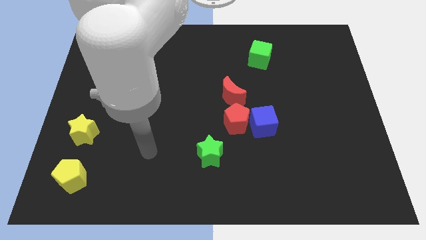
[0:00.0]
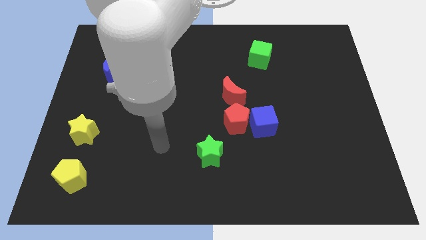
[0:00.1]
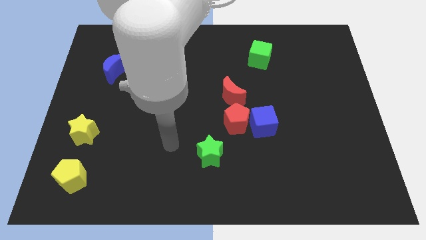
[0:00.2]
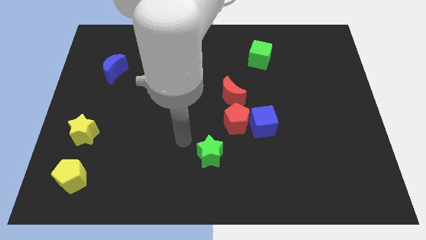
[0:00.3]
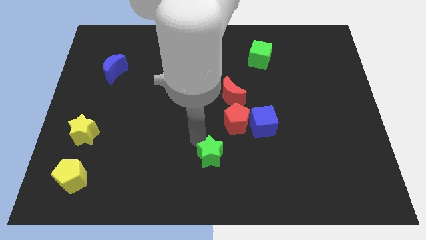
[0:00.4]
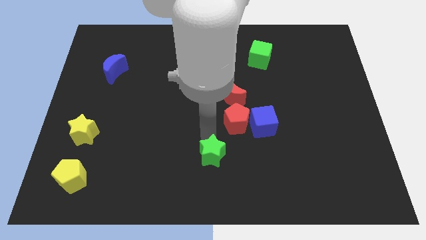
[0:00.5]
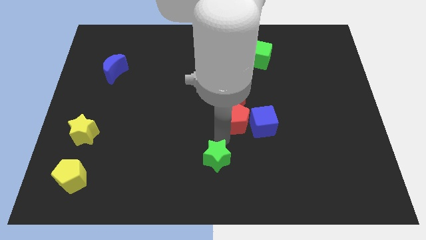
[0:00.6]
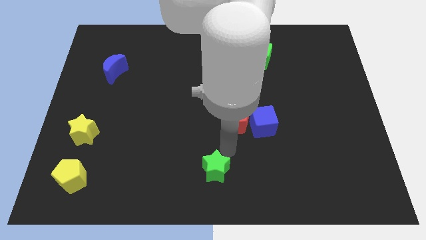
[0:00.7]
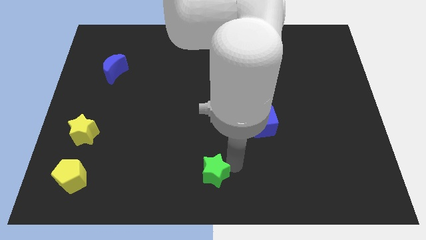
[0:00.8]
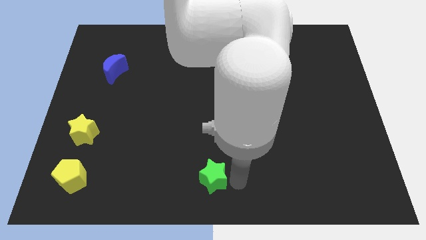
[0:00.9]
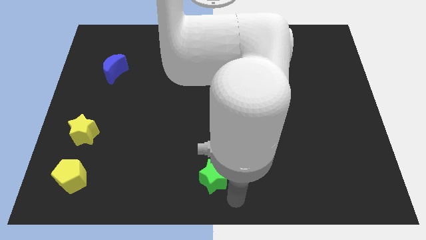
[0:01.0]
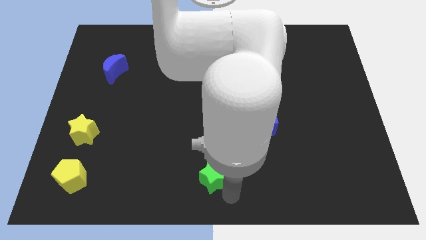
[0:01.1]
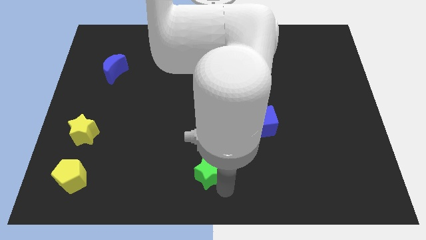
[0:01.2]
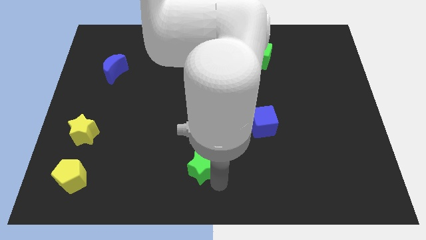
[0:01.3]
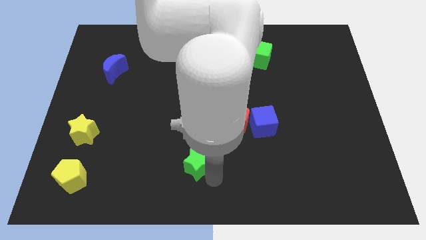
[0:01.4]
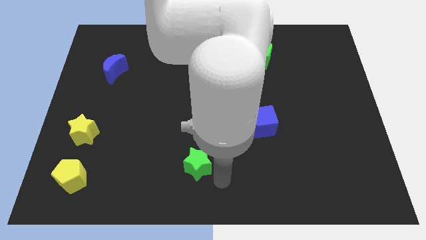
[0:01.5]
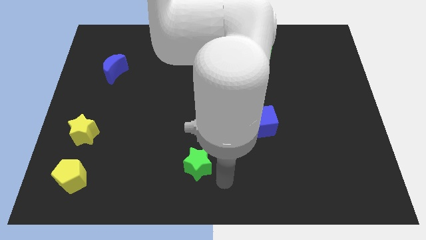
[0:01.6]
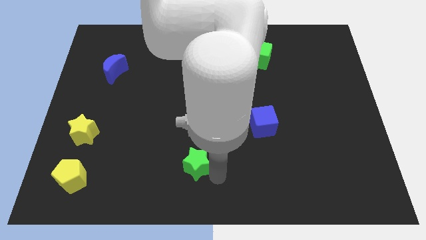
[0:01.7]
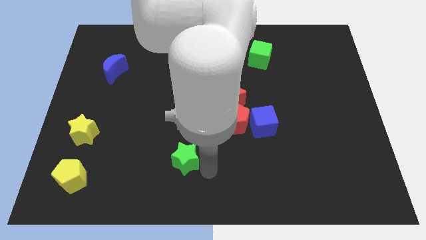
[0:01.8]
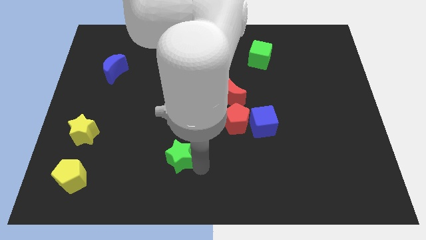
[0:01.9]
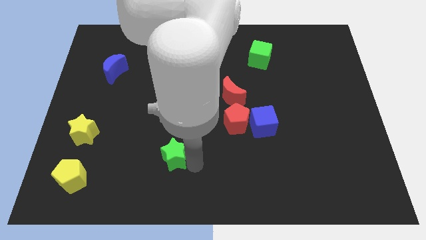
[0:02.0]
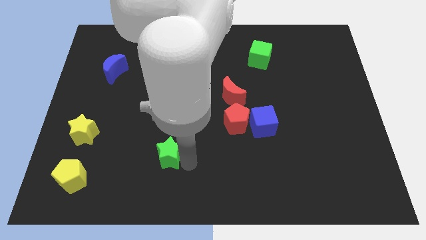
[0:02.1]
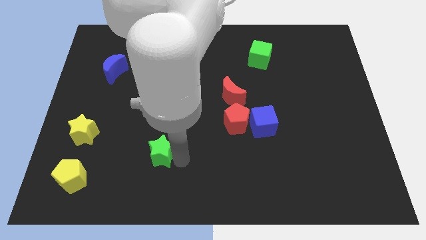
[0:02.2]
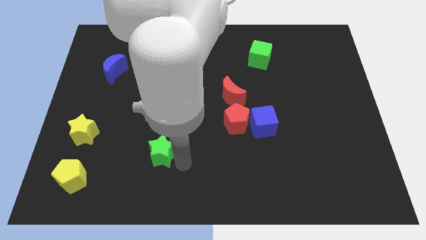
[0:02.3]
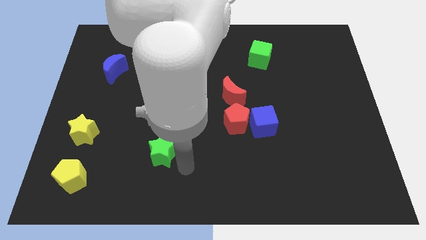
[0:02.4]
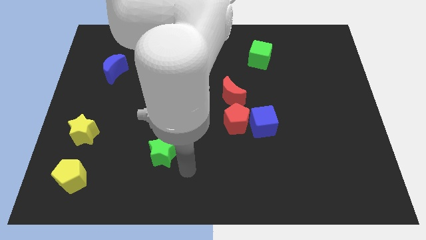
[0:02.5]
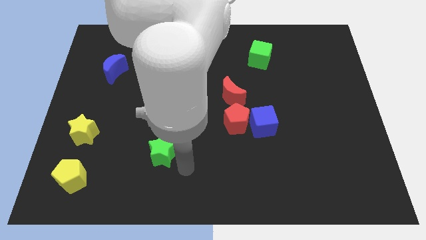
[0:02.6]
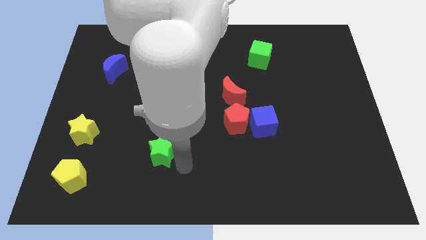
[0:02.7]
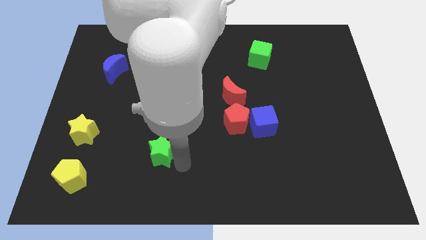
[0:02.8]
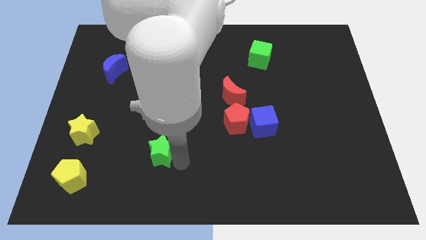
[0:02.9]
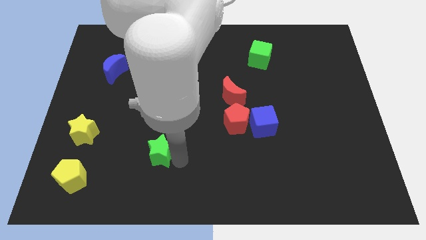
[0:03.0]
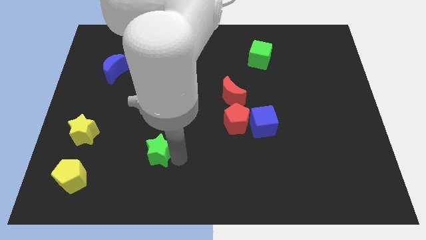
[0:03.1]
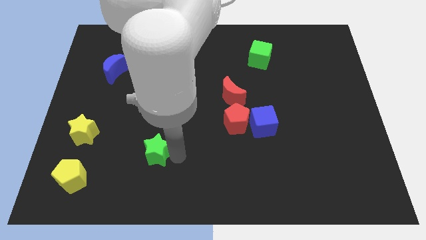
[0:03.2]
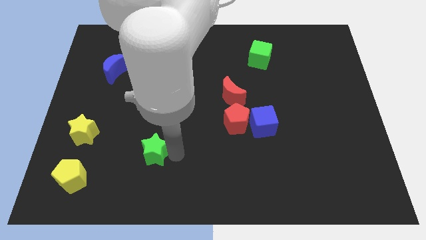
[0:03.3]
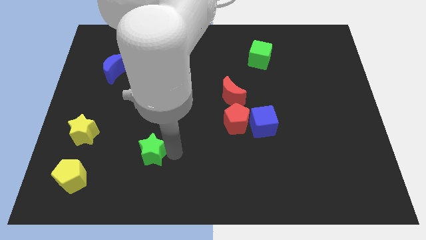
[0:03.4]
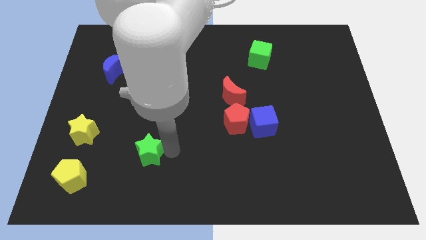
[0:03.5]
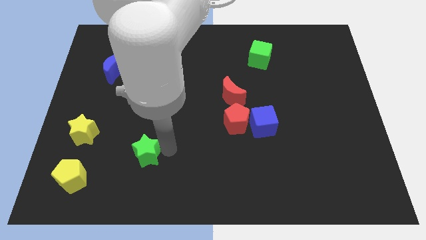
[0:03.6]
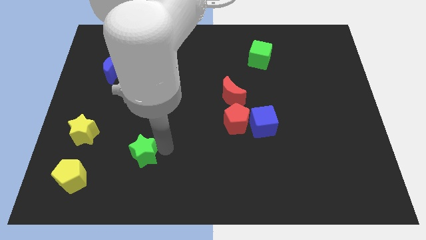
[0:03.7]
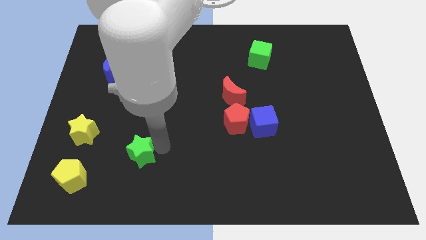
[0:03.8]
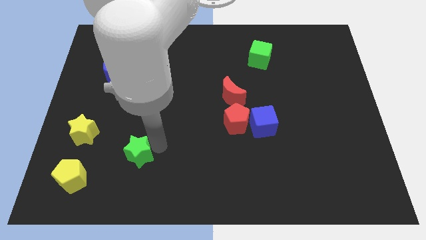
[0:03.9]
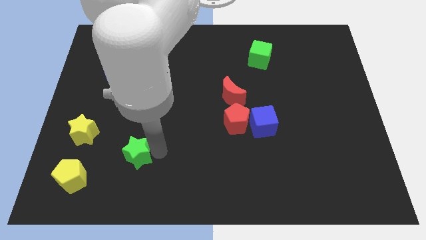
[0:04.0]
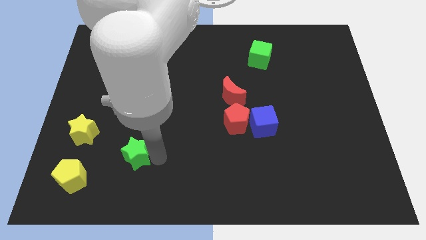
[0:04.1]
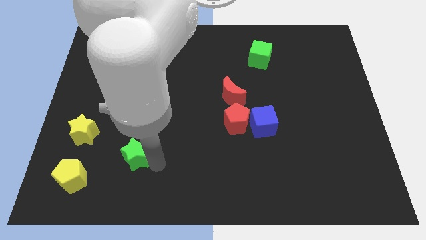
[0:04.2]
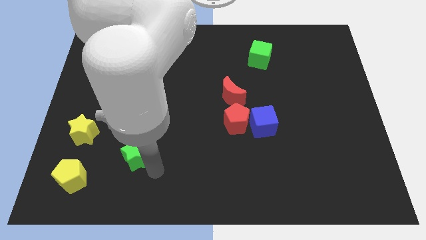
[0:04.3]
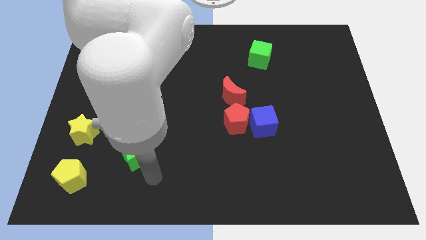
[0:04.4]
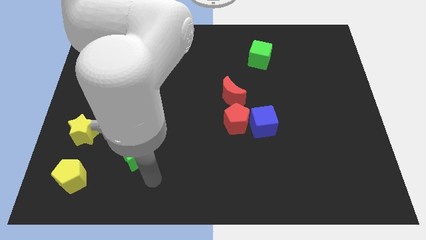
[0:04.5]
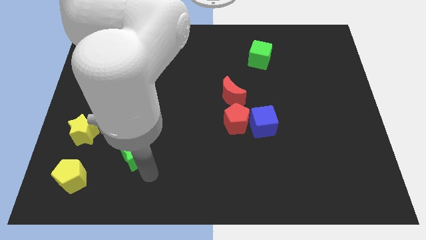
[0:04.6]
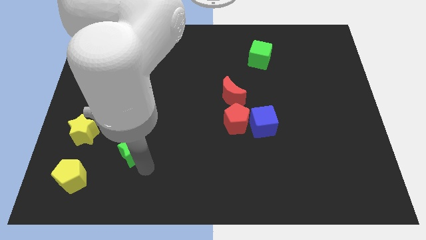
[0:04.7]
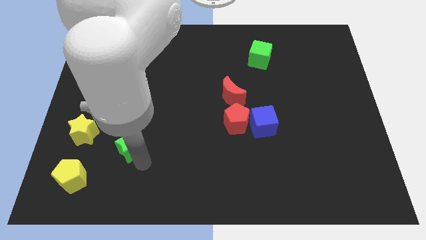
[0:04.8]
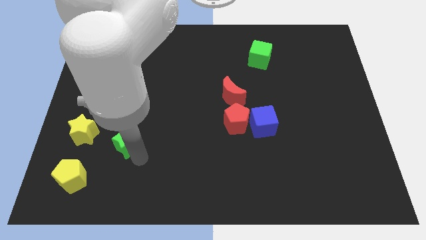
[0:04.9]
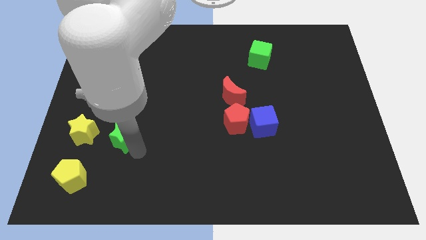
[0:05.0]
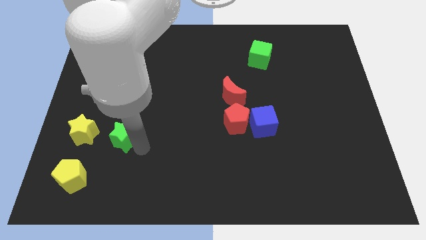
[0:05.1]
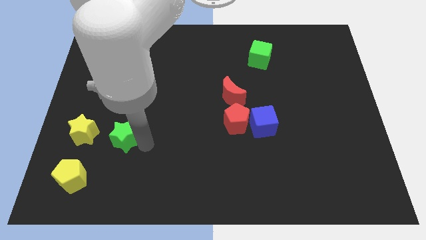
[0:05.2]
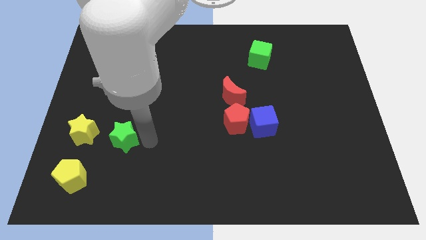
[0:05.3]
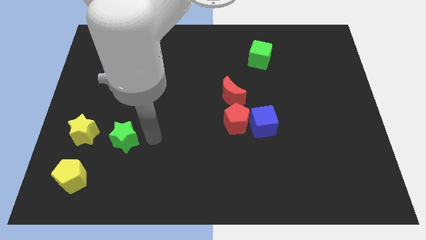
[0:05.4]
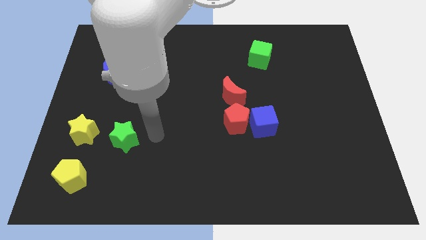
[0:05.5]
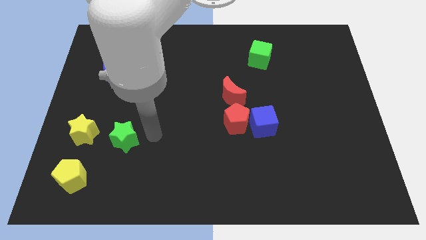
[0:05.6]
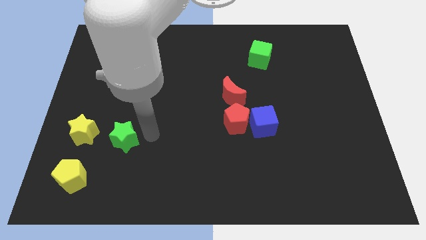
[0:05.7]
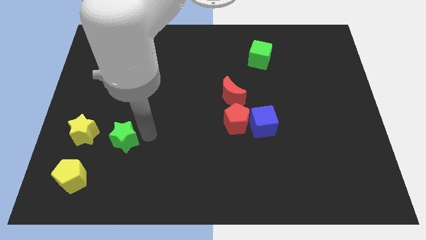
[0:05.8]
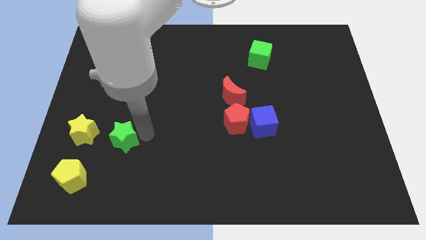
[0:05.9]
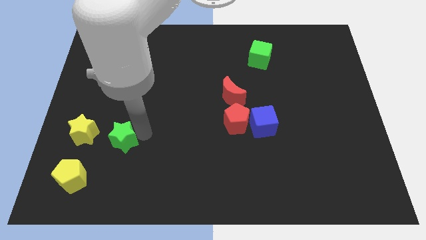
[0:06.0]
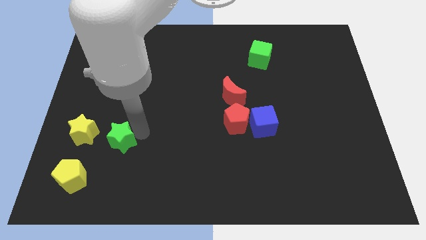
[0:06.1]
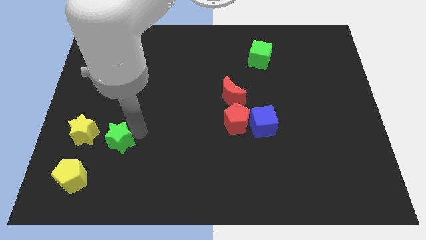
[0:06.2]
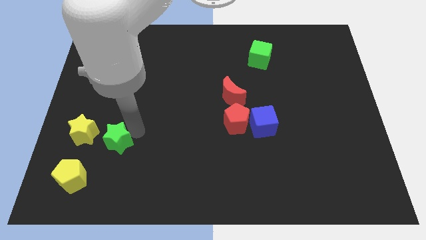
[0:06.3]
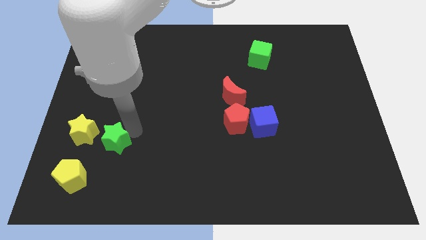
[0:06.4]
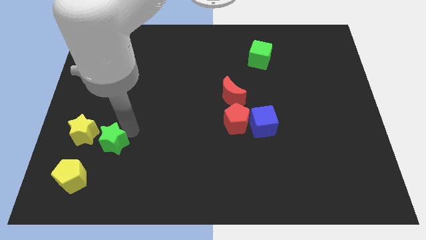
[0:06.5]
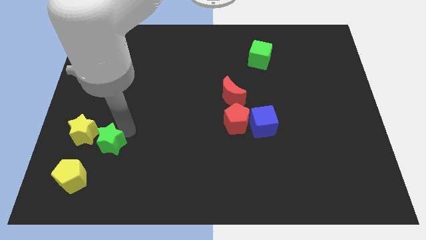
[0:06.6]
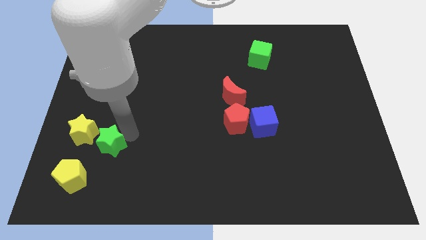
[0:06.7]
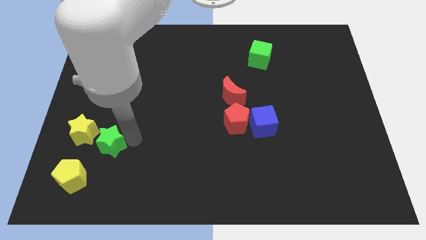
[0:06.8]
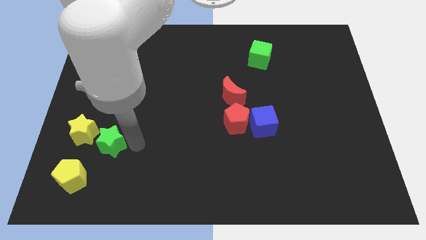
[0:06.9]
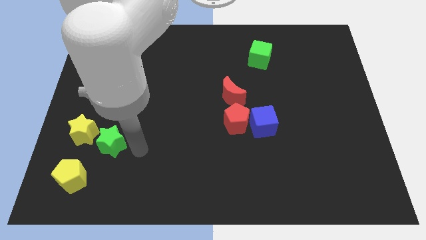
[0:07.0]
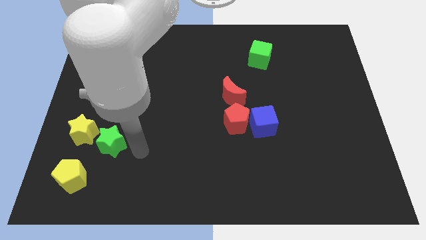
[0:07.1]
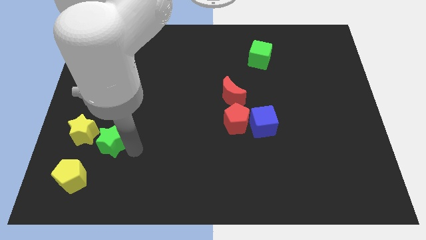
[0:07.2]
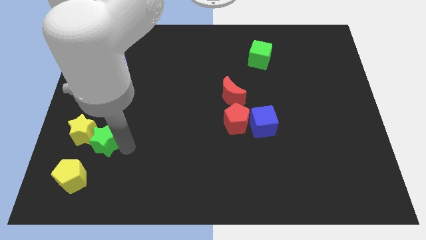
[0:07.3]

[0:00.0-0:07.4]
put the green star next to the yellow star
